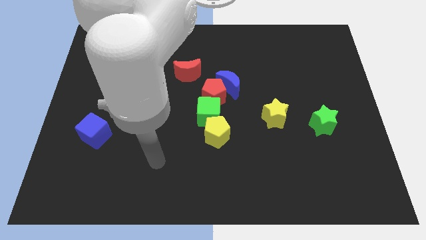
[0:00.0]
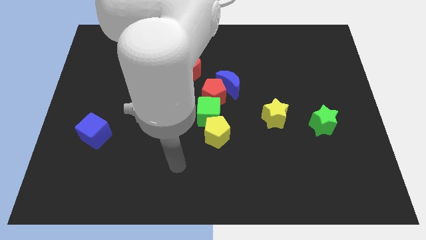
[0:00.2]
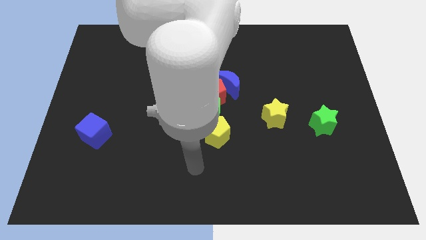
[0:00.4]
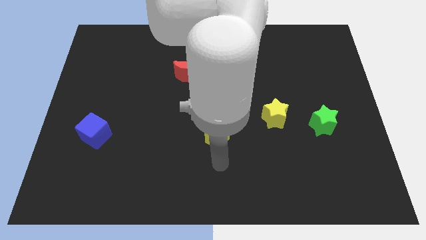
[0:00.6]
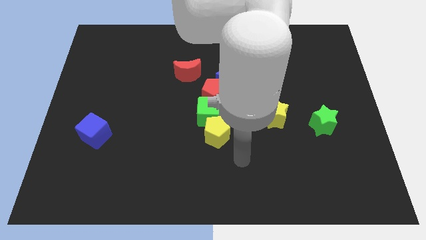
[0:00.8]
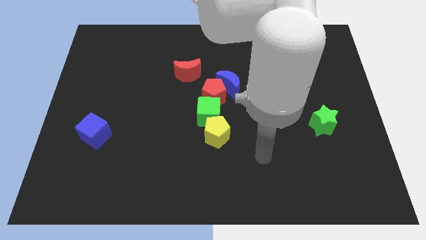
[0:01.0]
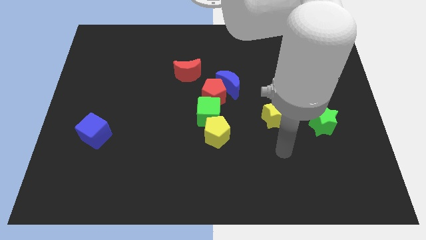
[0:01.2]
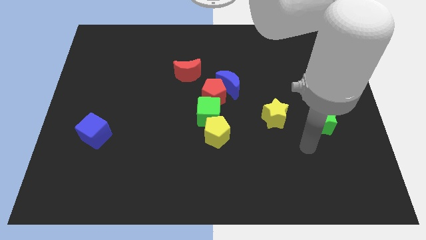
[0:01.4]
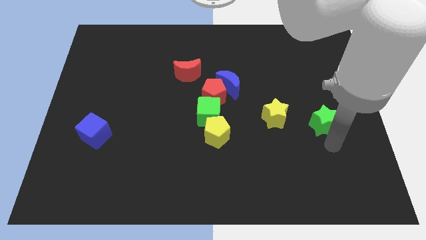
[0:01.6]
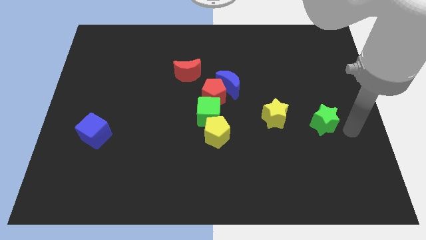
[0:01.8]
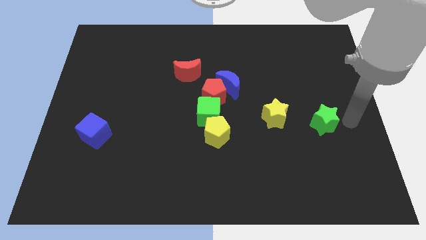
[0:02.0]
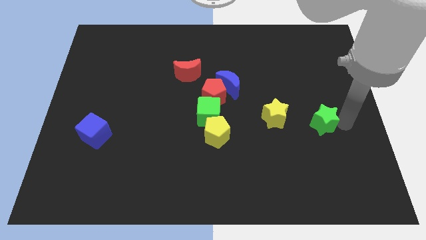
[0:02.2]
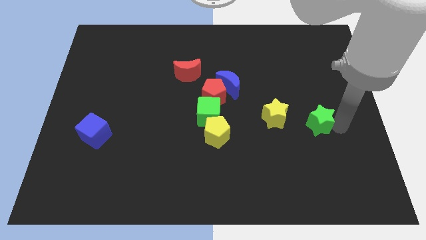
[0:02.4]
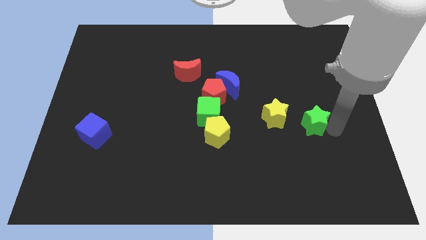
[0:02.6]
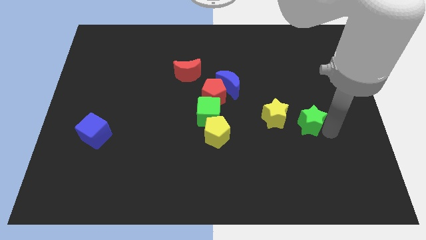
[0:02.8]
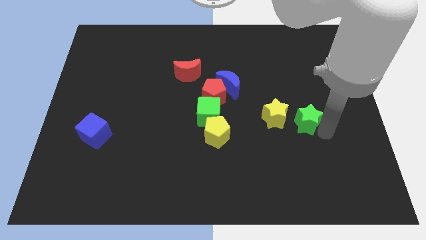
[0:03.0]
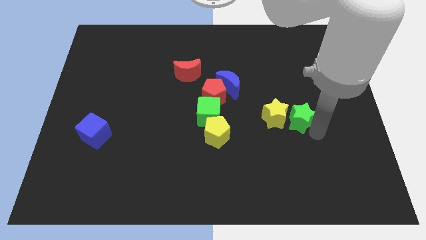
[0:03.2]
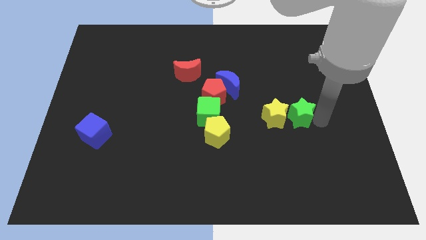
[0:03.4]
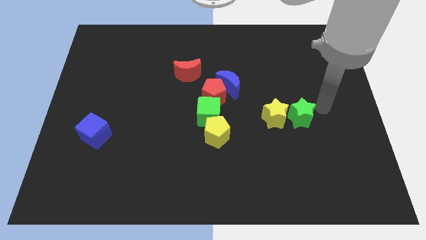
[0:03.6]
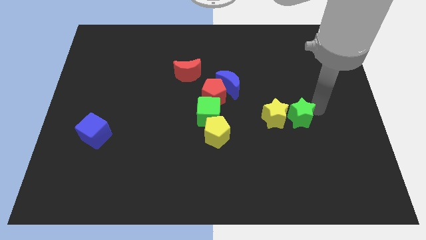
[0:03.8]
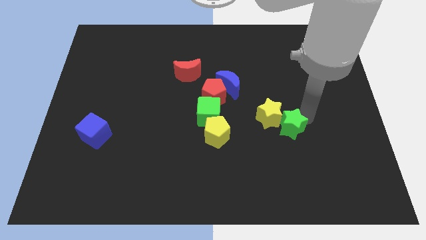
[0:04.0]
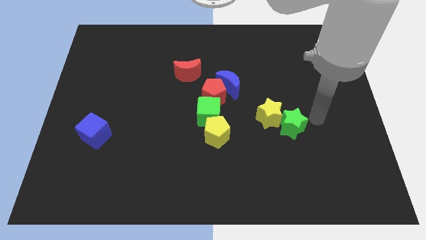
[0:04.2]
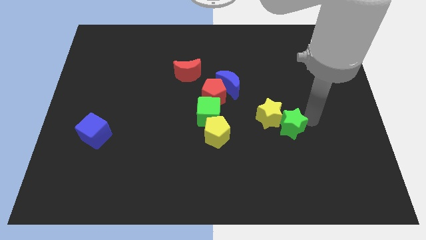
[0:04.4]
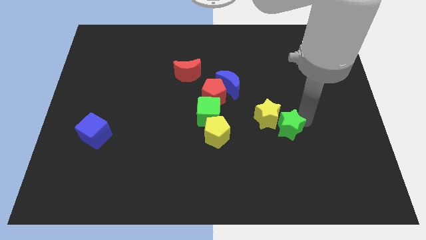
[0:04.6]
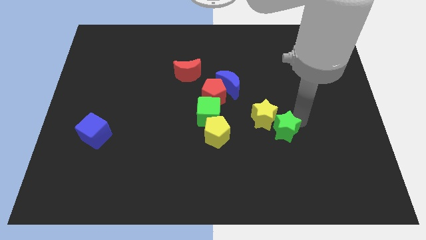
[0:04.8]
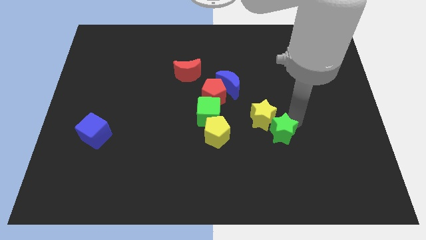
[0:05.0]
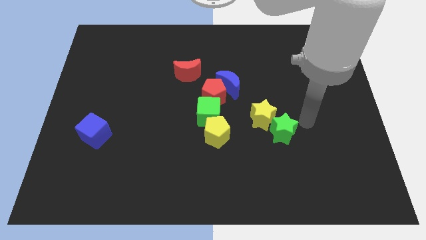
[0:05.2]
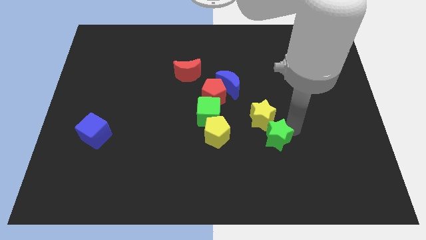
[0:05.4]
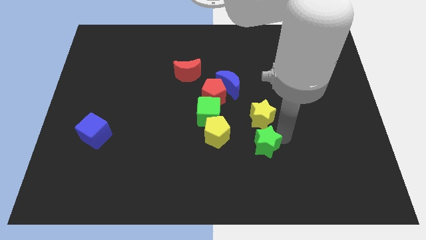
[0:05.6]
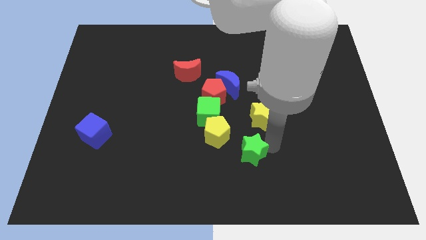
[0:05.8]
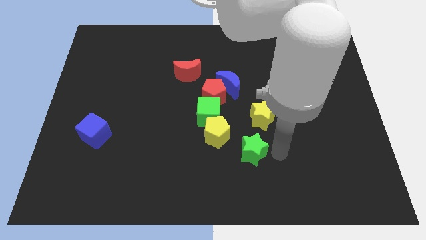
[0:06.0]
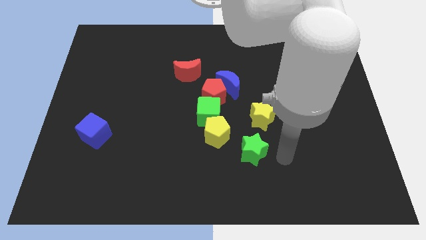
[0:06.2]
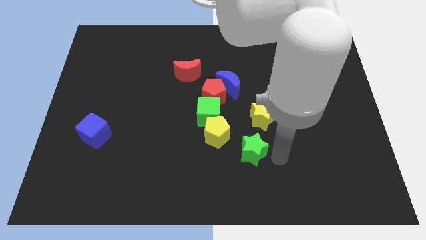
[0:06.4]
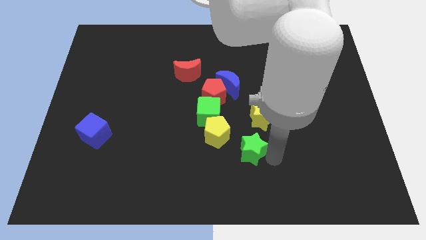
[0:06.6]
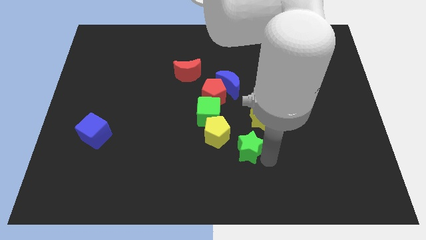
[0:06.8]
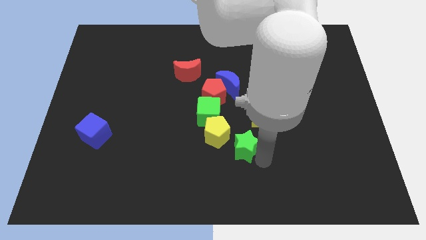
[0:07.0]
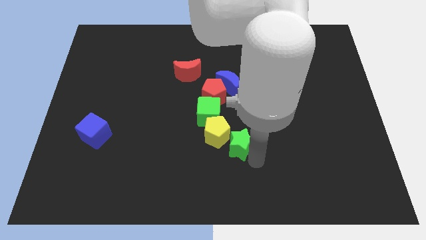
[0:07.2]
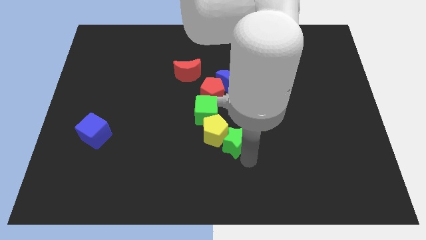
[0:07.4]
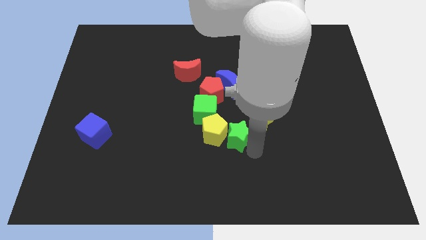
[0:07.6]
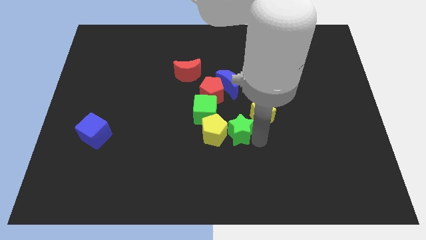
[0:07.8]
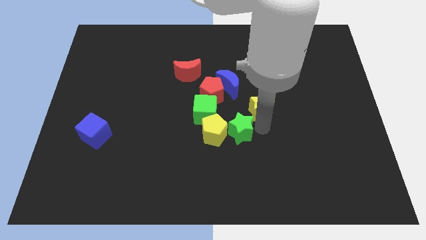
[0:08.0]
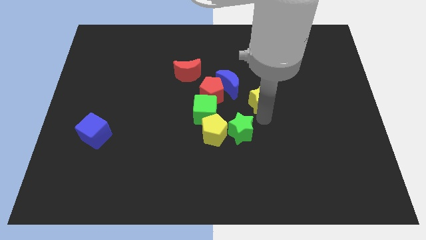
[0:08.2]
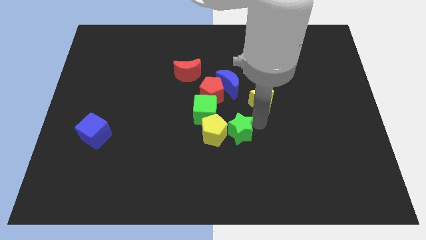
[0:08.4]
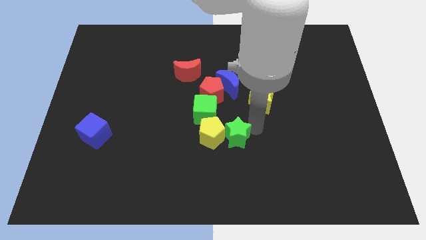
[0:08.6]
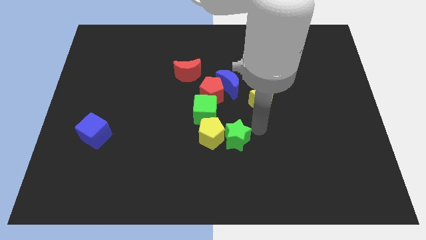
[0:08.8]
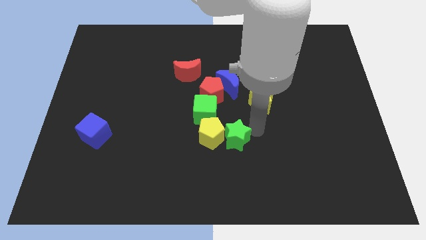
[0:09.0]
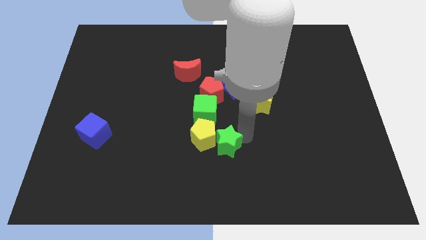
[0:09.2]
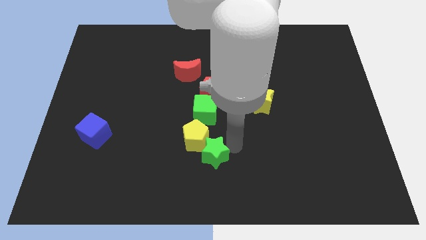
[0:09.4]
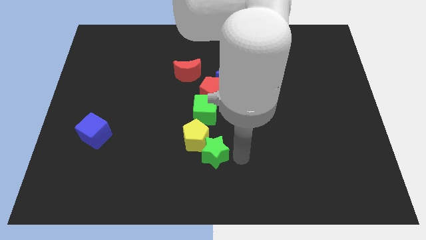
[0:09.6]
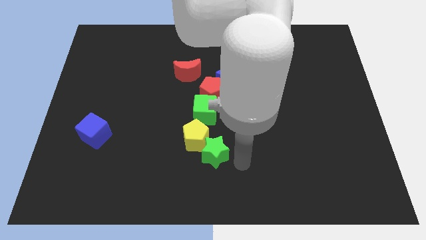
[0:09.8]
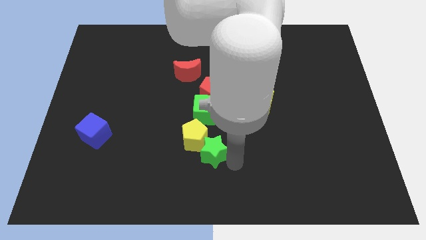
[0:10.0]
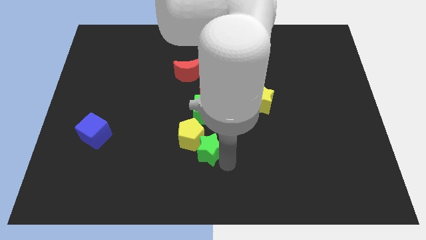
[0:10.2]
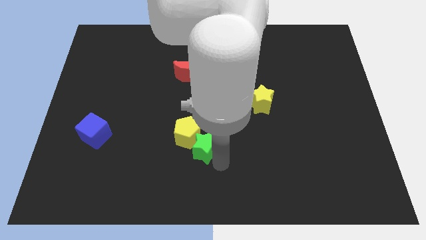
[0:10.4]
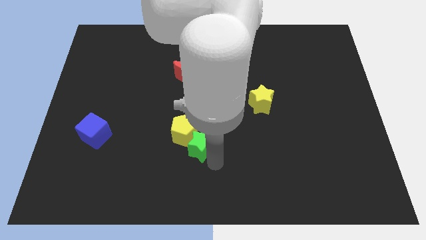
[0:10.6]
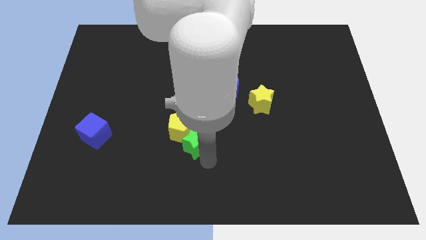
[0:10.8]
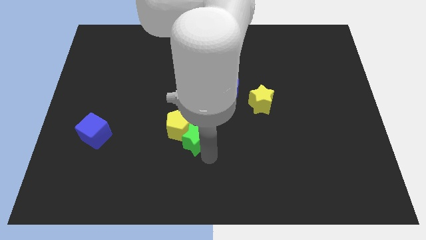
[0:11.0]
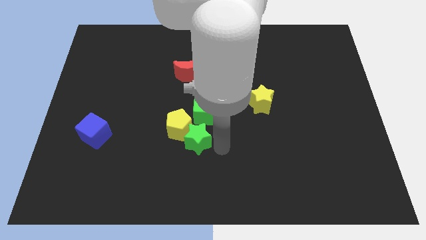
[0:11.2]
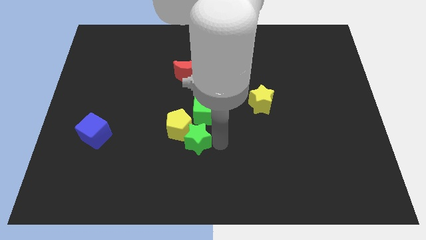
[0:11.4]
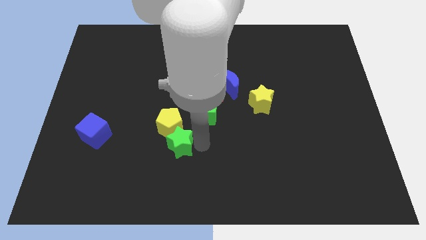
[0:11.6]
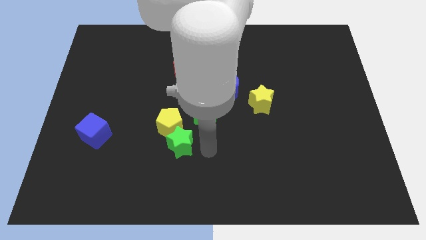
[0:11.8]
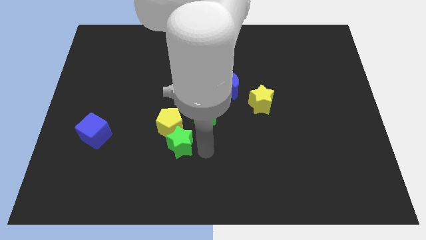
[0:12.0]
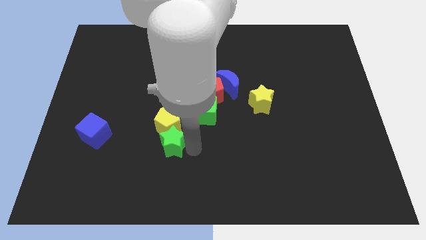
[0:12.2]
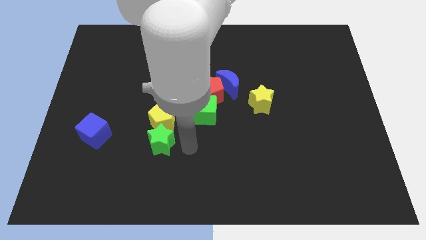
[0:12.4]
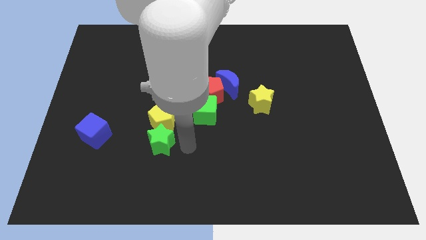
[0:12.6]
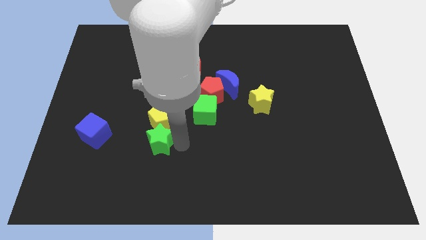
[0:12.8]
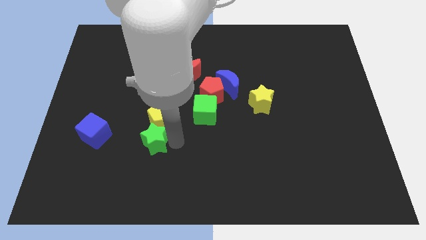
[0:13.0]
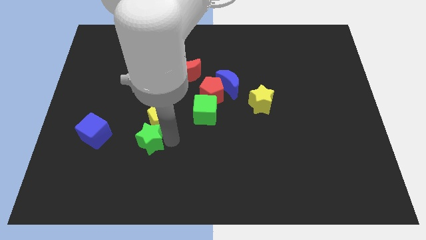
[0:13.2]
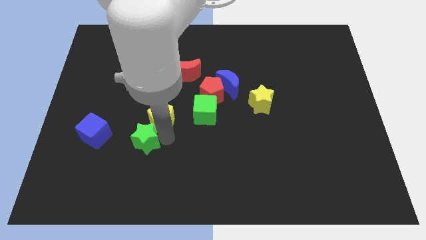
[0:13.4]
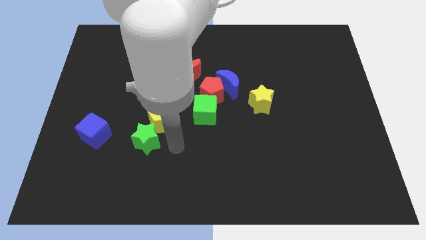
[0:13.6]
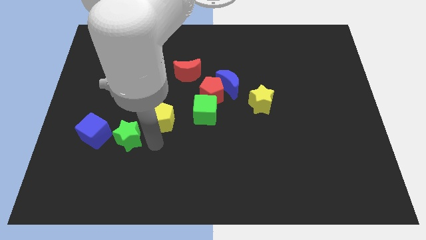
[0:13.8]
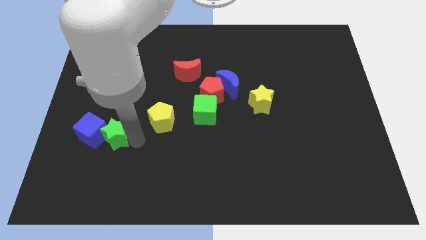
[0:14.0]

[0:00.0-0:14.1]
move the green star close to the blue cube

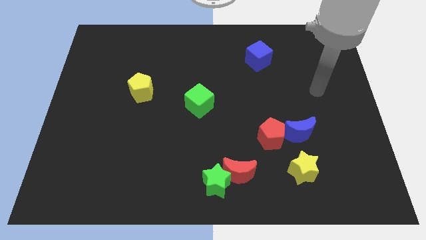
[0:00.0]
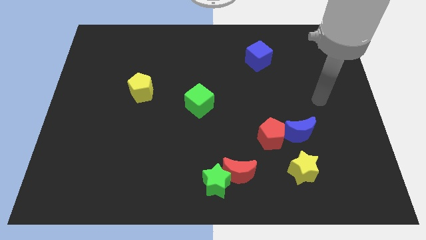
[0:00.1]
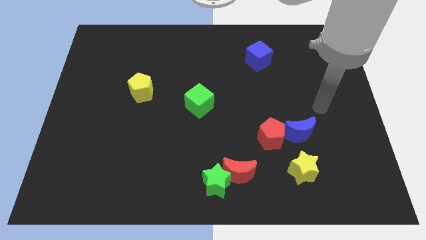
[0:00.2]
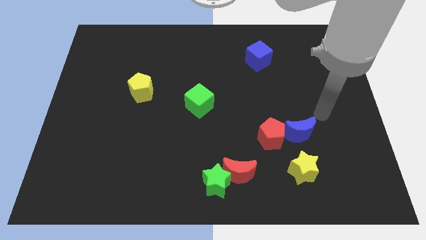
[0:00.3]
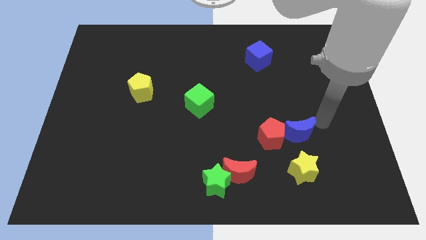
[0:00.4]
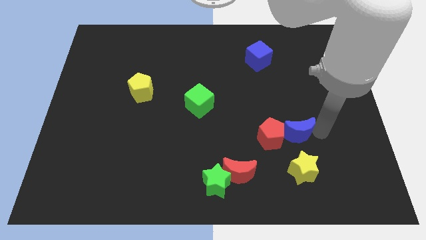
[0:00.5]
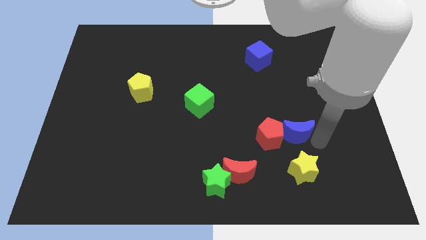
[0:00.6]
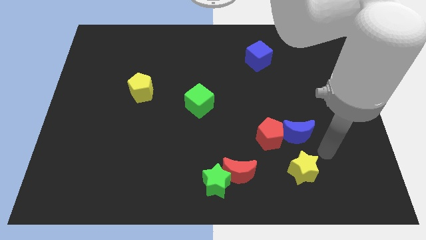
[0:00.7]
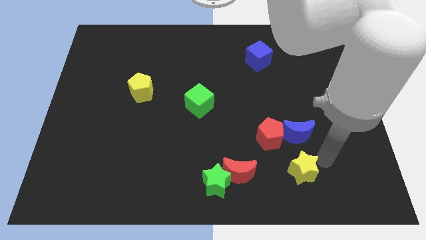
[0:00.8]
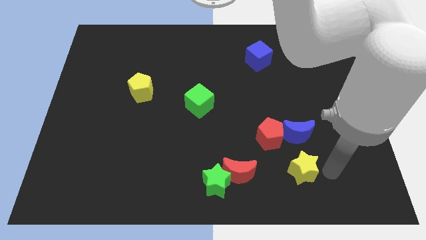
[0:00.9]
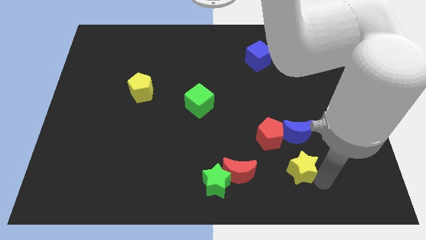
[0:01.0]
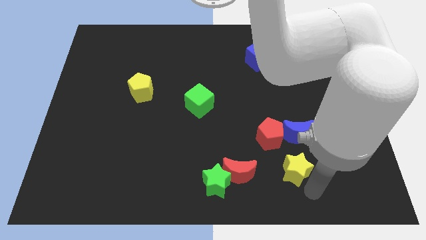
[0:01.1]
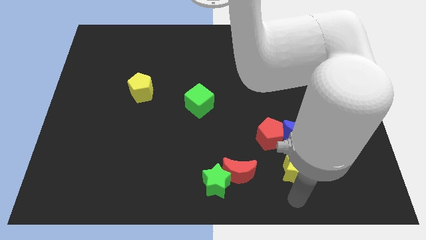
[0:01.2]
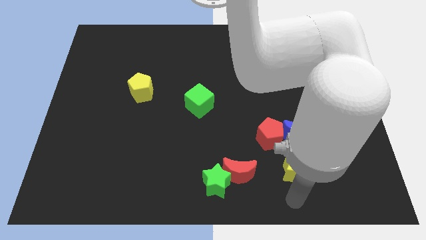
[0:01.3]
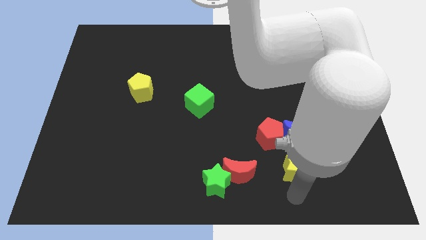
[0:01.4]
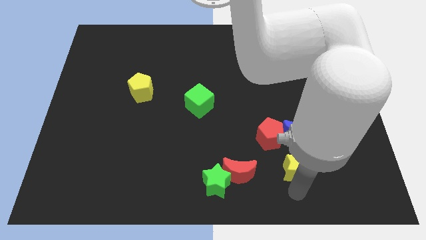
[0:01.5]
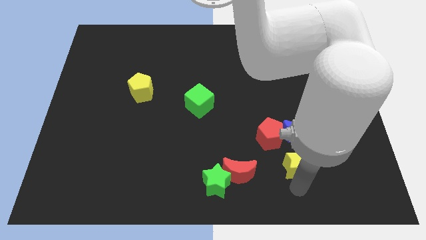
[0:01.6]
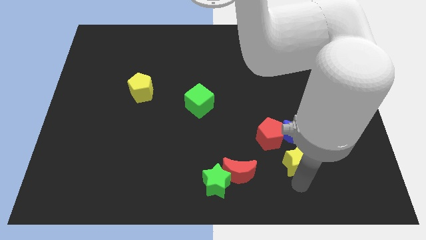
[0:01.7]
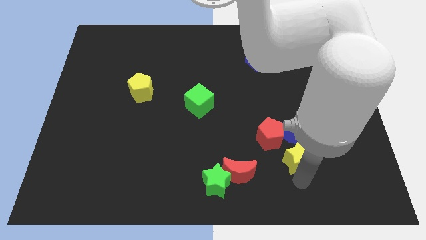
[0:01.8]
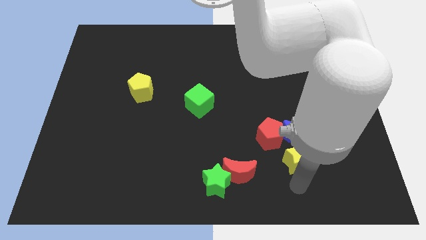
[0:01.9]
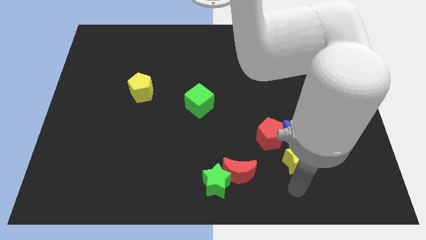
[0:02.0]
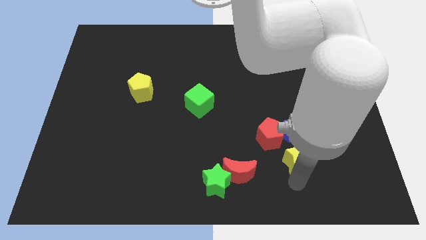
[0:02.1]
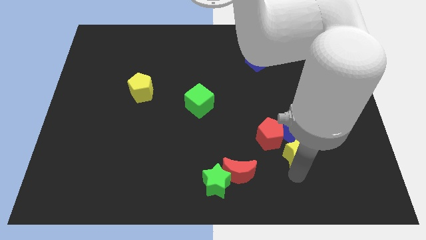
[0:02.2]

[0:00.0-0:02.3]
move the yellow star to the blue moon
